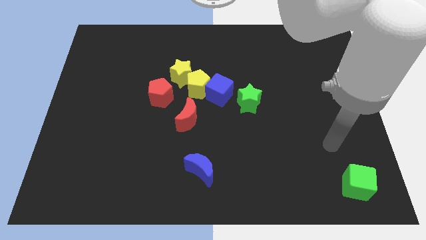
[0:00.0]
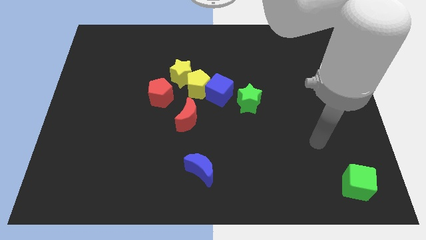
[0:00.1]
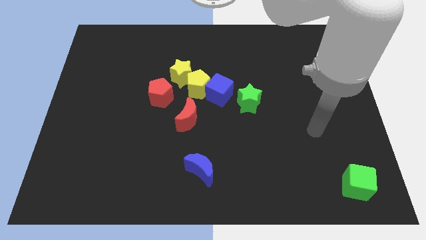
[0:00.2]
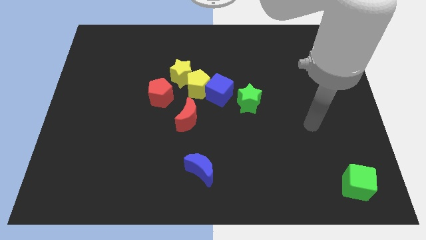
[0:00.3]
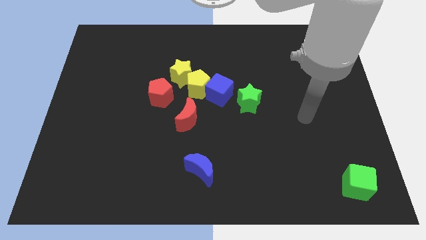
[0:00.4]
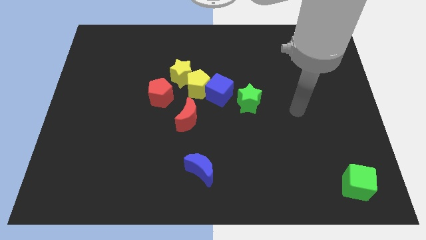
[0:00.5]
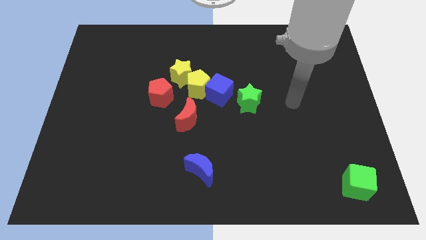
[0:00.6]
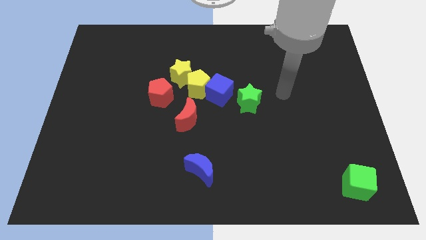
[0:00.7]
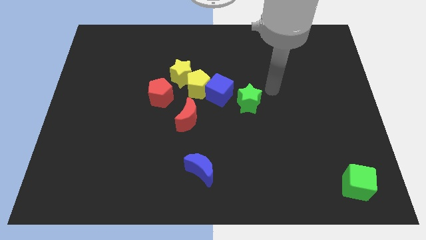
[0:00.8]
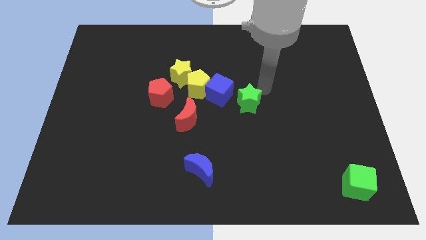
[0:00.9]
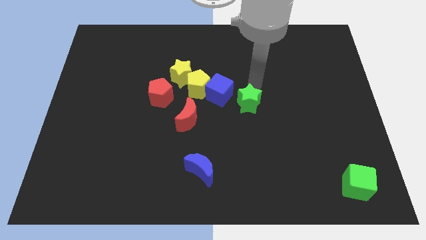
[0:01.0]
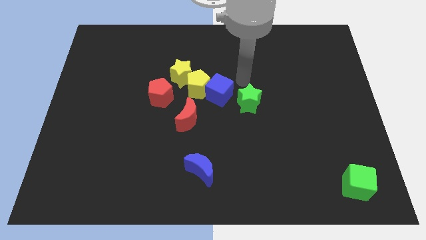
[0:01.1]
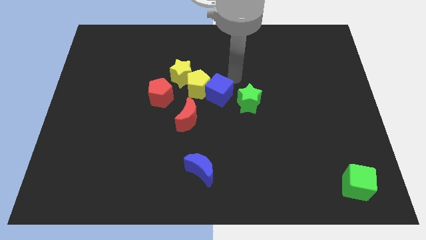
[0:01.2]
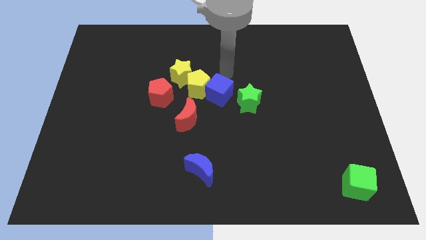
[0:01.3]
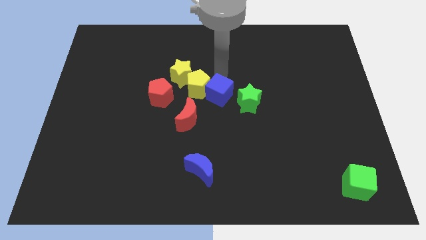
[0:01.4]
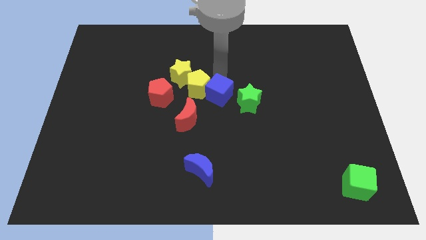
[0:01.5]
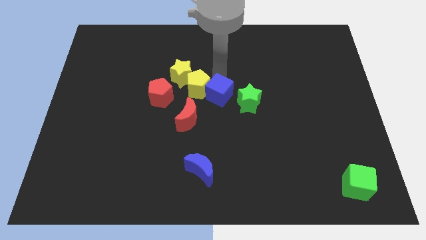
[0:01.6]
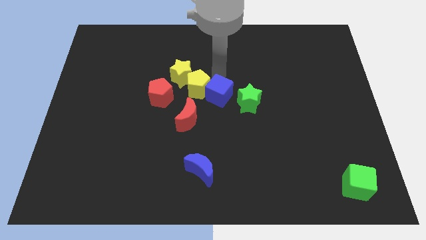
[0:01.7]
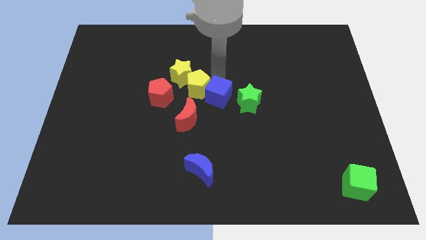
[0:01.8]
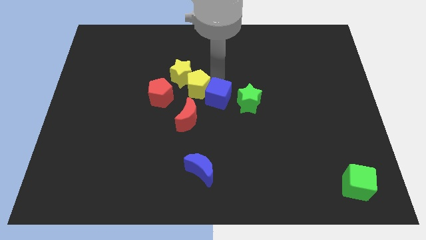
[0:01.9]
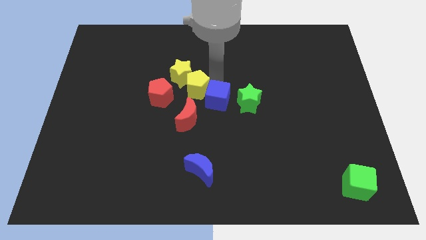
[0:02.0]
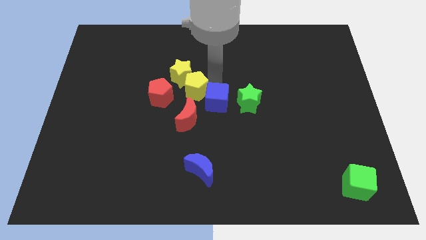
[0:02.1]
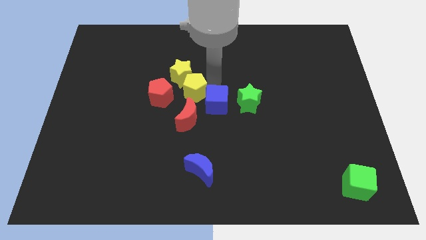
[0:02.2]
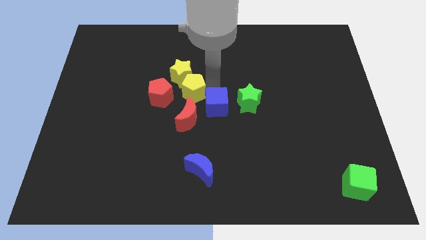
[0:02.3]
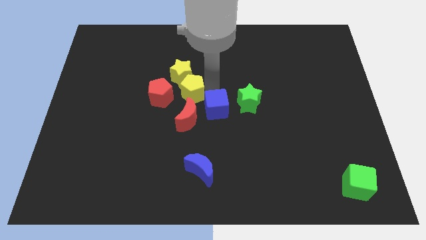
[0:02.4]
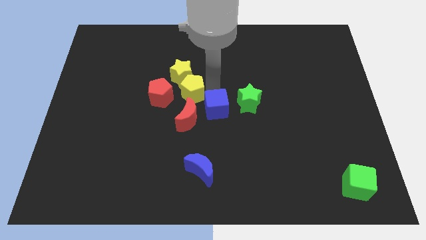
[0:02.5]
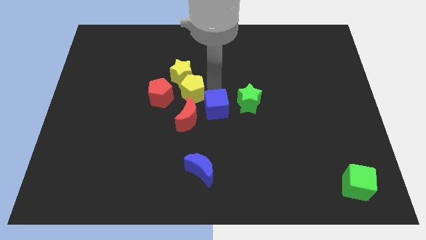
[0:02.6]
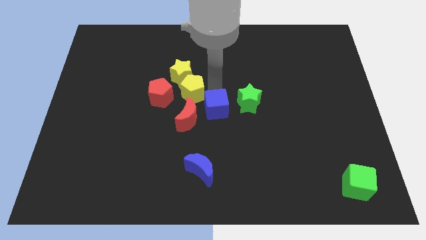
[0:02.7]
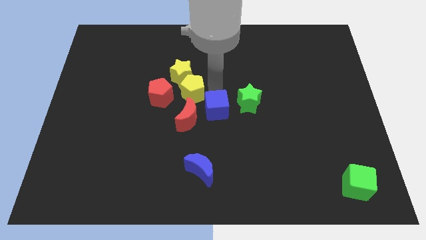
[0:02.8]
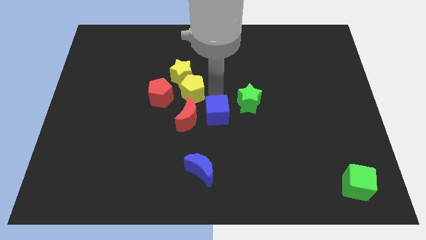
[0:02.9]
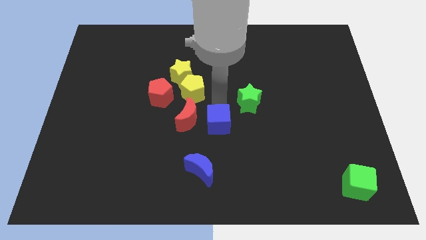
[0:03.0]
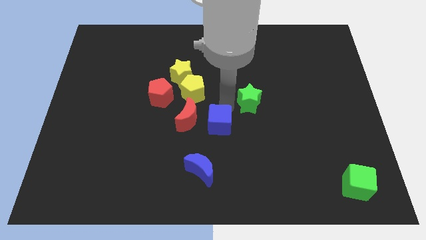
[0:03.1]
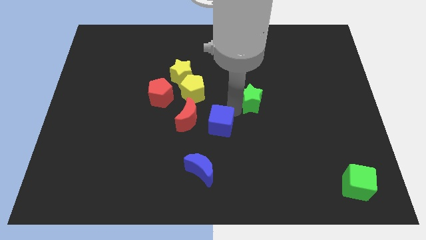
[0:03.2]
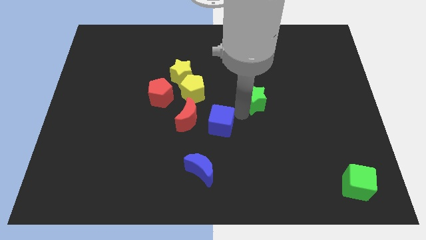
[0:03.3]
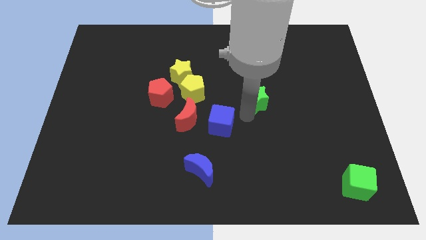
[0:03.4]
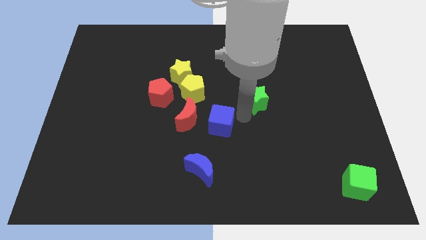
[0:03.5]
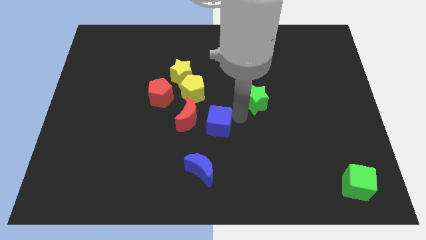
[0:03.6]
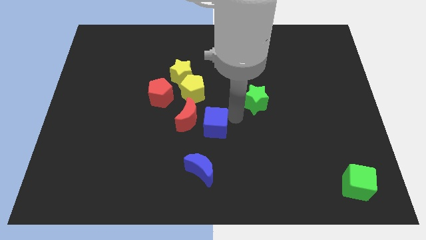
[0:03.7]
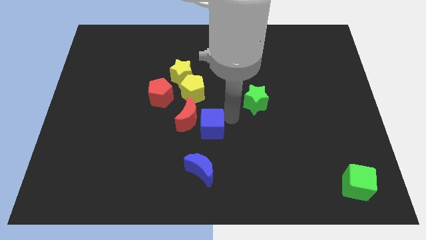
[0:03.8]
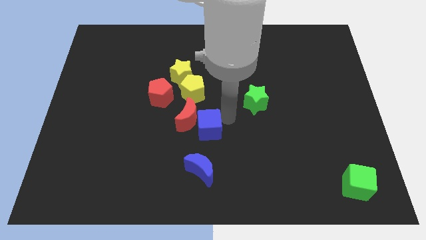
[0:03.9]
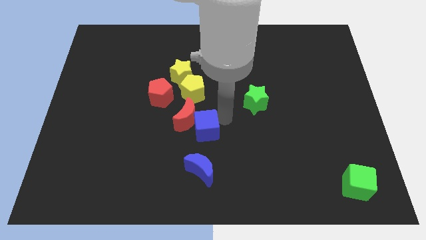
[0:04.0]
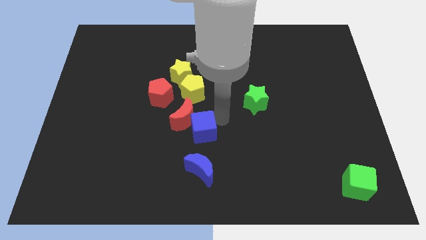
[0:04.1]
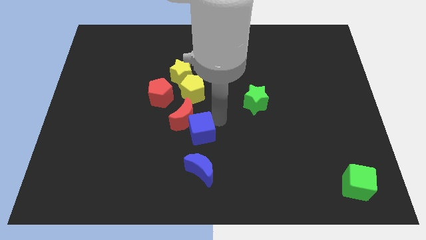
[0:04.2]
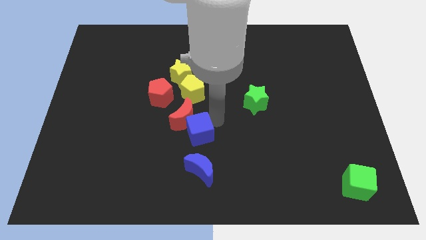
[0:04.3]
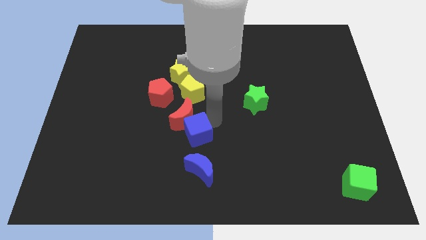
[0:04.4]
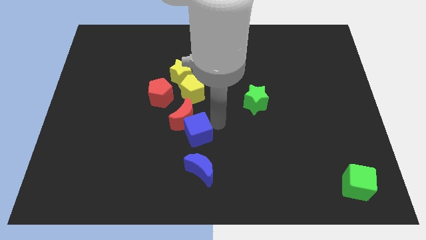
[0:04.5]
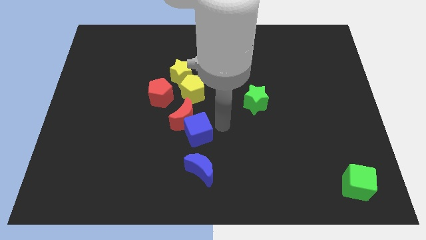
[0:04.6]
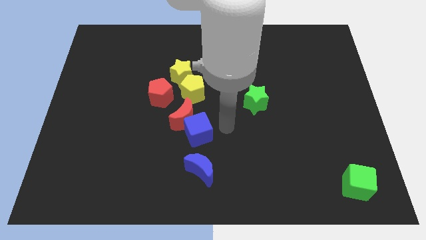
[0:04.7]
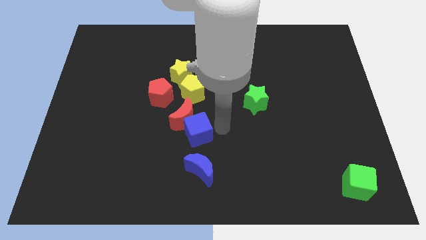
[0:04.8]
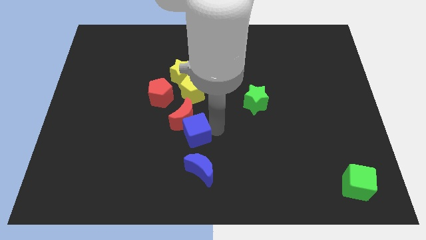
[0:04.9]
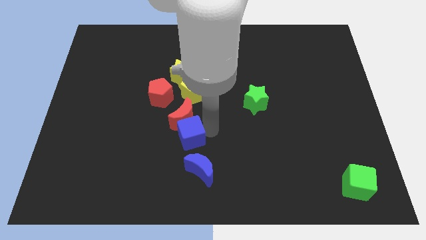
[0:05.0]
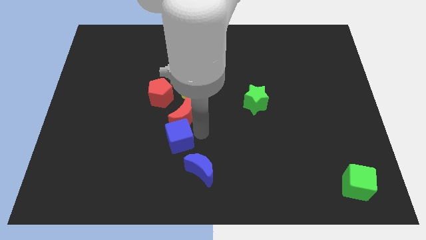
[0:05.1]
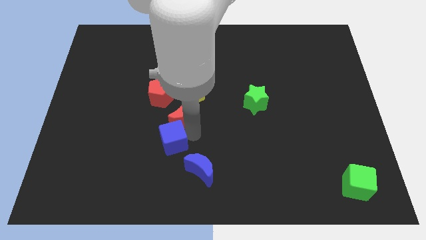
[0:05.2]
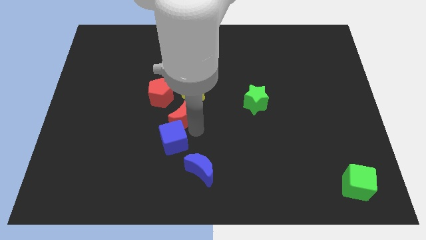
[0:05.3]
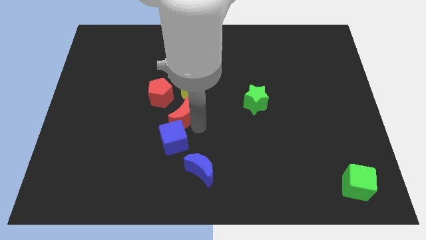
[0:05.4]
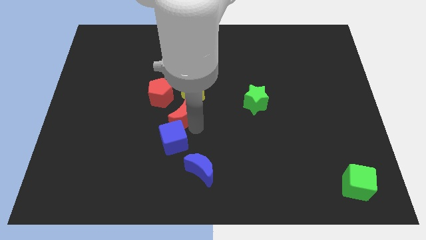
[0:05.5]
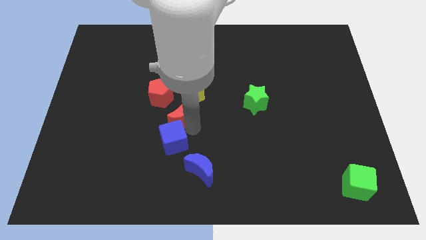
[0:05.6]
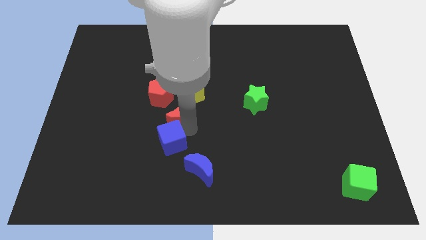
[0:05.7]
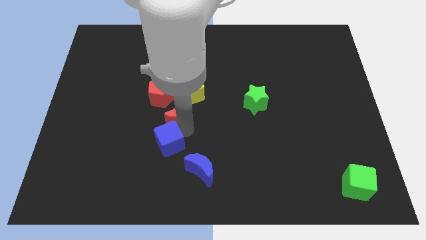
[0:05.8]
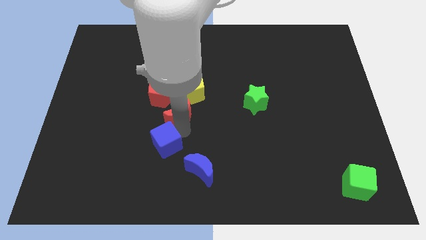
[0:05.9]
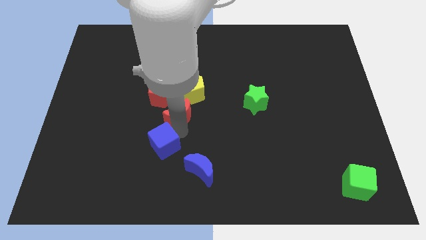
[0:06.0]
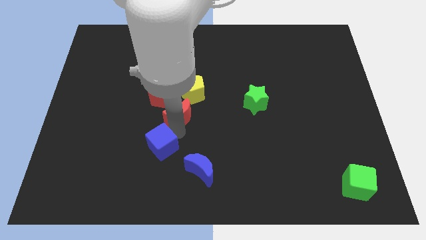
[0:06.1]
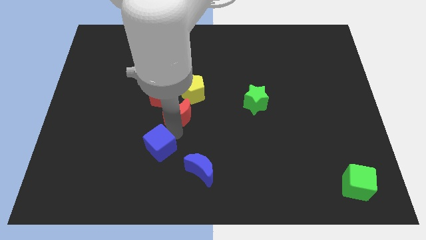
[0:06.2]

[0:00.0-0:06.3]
slide the blue cube down and left

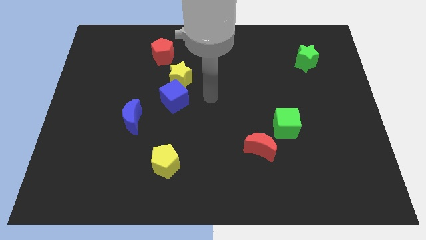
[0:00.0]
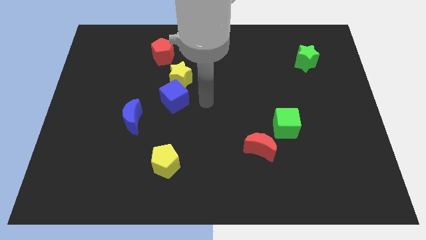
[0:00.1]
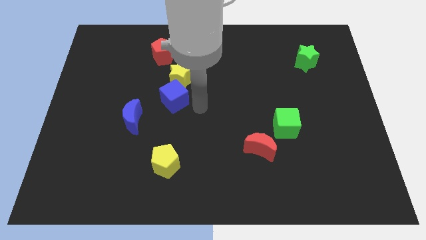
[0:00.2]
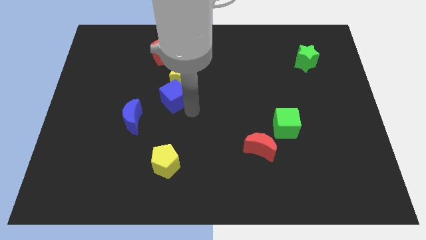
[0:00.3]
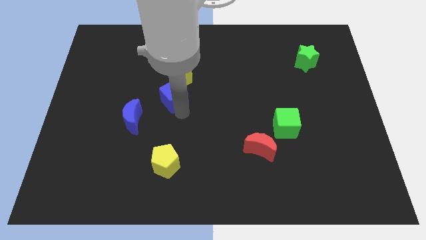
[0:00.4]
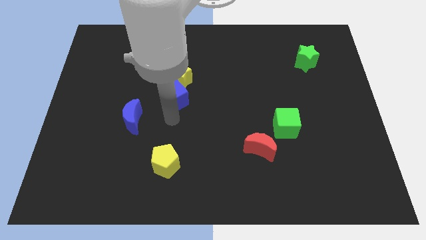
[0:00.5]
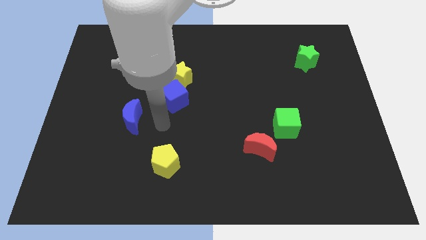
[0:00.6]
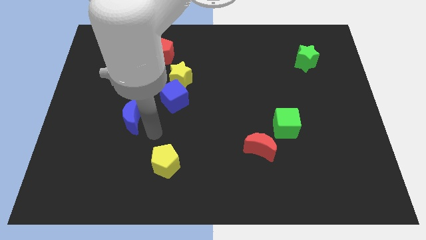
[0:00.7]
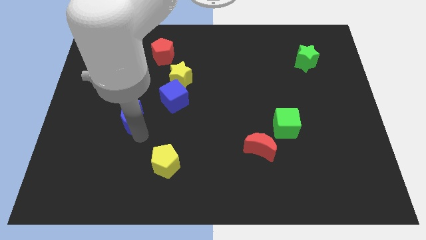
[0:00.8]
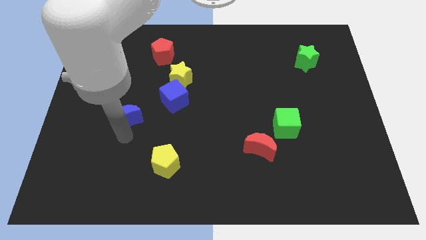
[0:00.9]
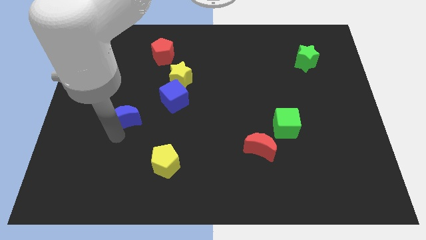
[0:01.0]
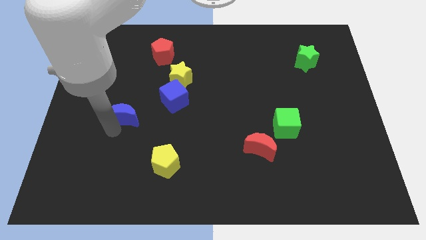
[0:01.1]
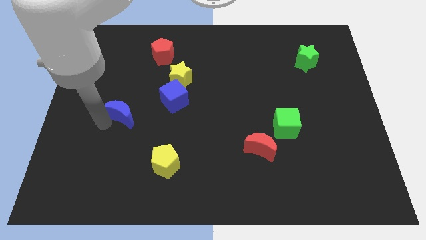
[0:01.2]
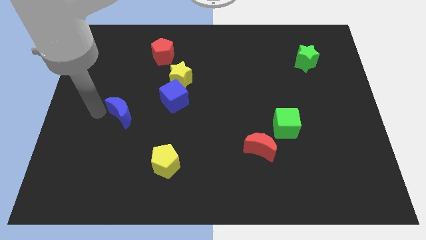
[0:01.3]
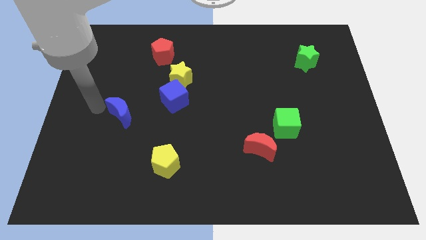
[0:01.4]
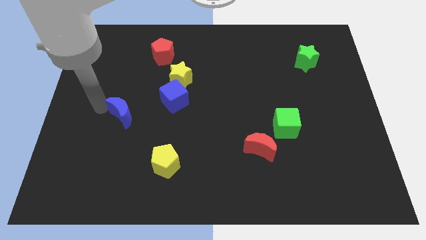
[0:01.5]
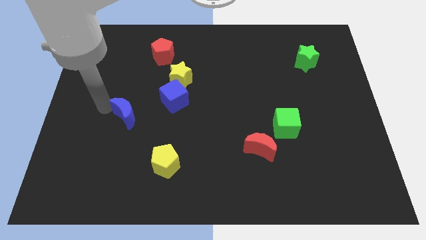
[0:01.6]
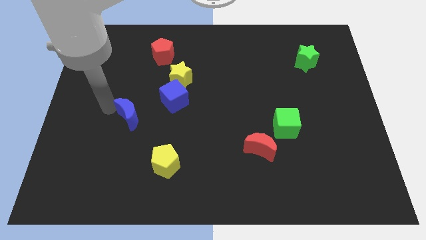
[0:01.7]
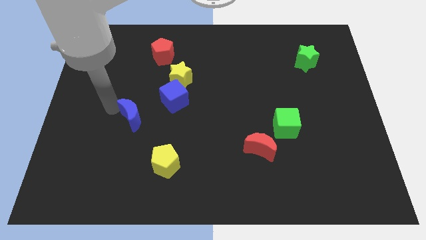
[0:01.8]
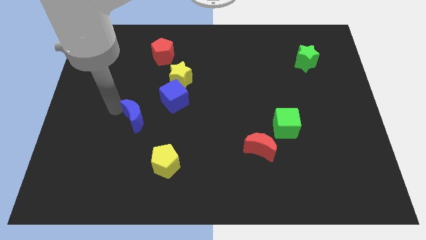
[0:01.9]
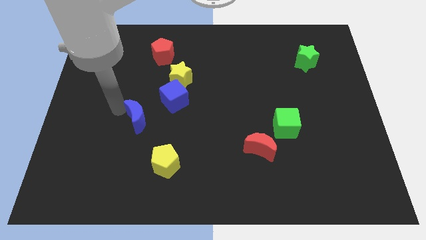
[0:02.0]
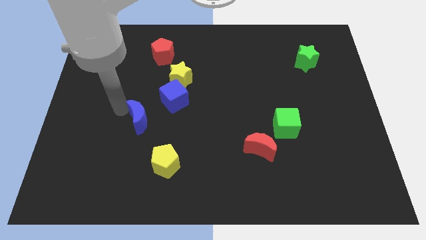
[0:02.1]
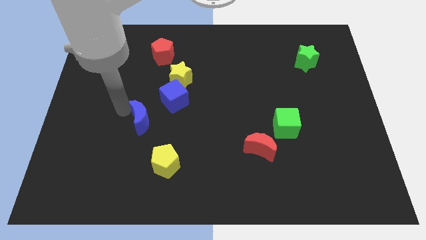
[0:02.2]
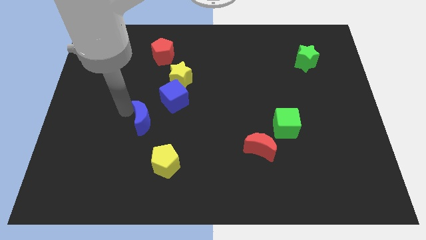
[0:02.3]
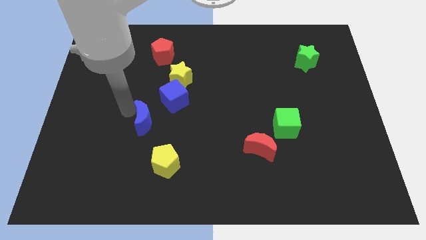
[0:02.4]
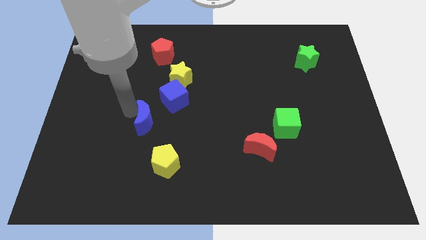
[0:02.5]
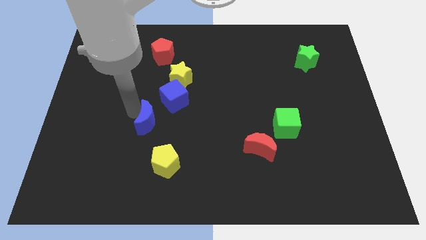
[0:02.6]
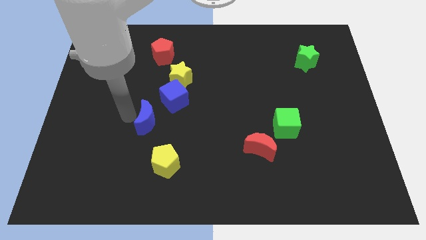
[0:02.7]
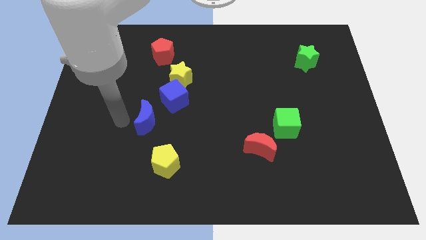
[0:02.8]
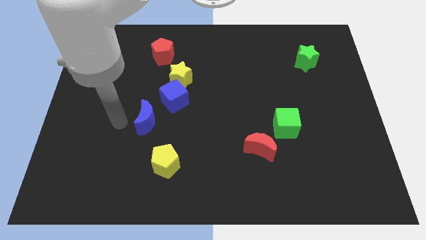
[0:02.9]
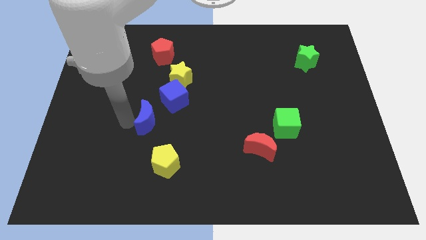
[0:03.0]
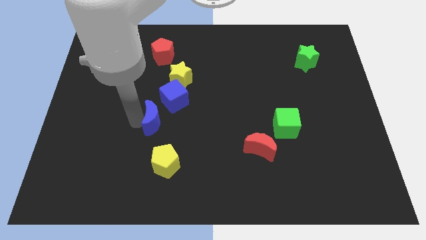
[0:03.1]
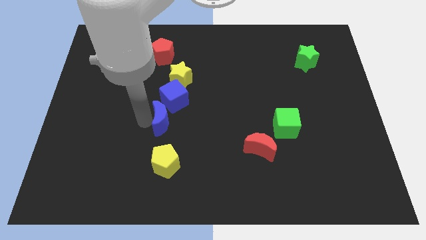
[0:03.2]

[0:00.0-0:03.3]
slightly push the blue moon to the right
